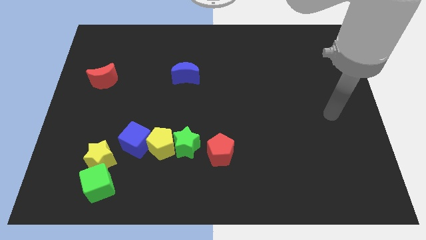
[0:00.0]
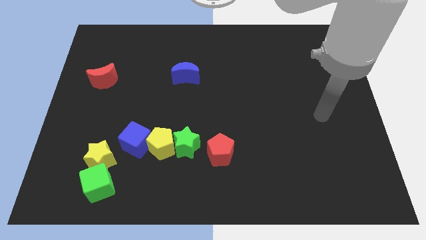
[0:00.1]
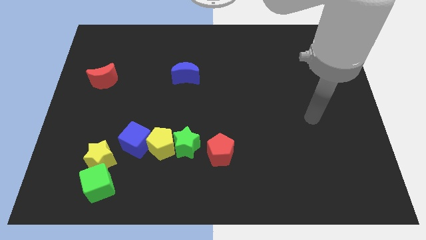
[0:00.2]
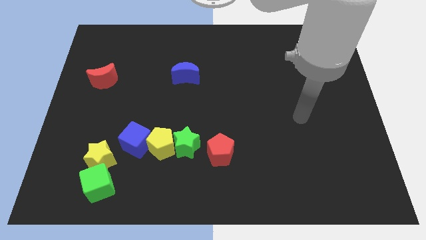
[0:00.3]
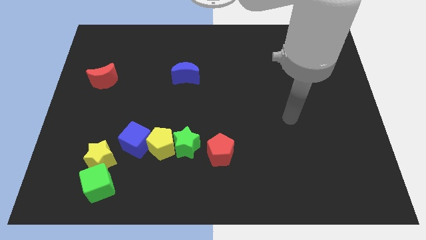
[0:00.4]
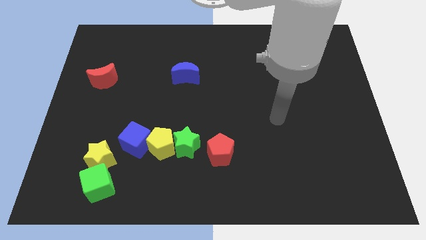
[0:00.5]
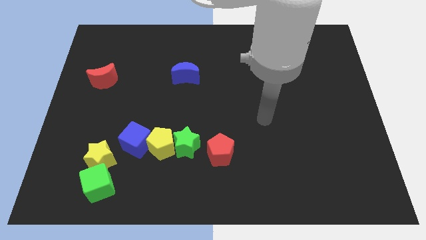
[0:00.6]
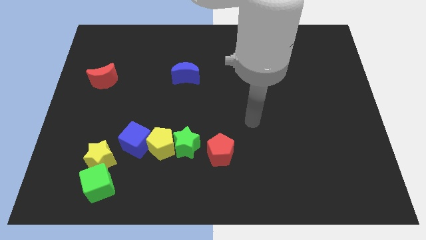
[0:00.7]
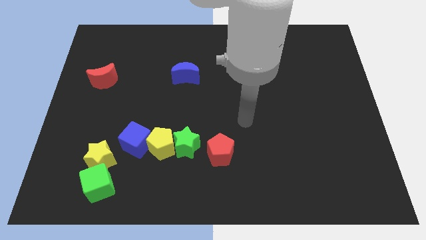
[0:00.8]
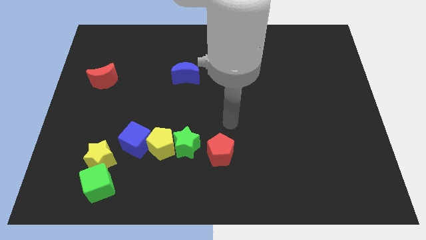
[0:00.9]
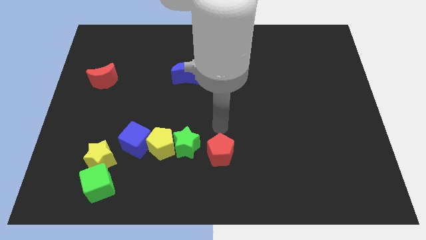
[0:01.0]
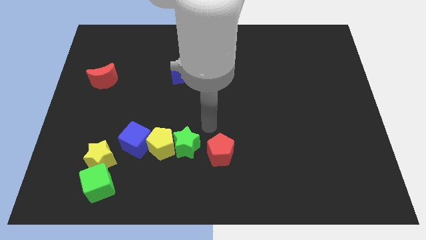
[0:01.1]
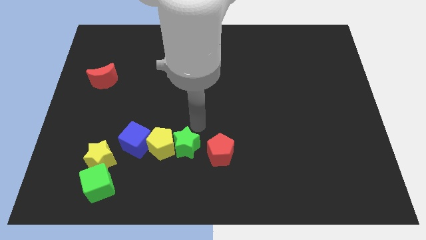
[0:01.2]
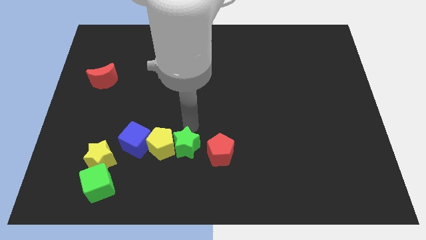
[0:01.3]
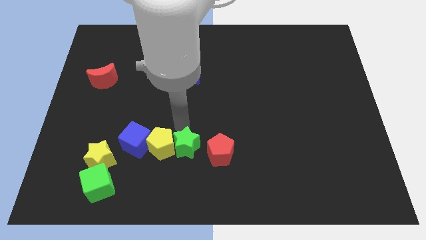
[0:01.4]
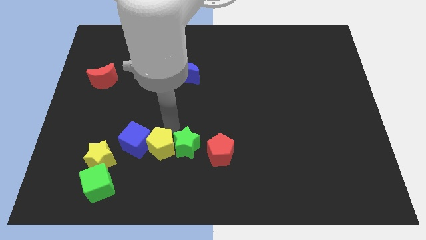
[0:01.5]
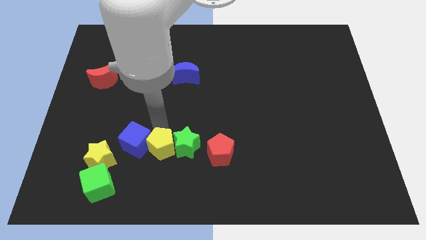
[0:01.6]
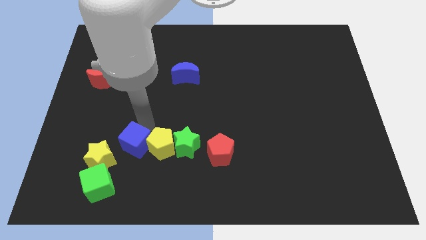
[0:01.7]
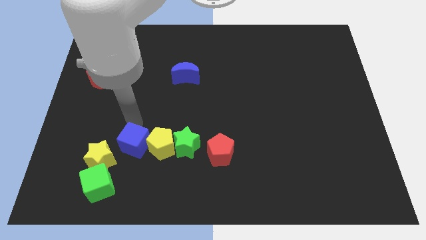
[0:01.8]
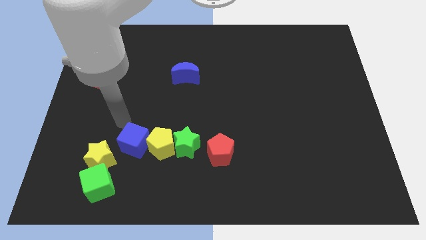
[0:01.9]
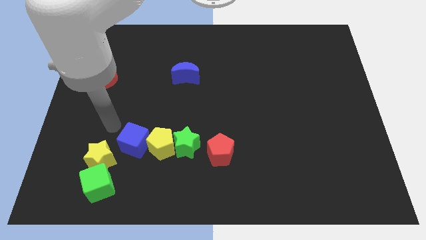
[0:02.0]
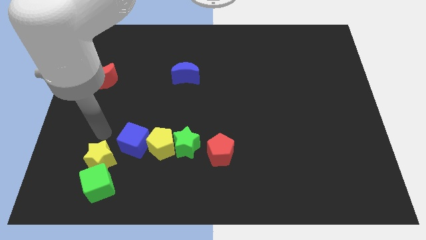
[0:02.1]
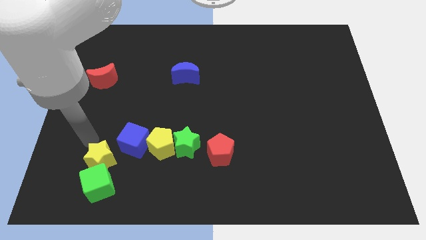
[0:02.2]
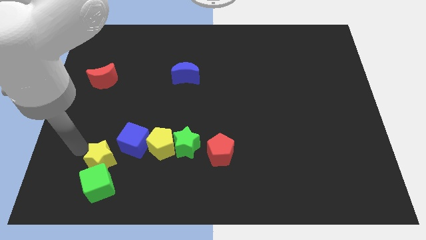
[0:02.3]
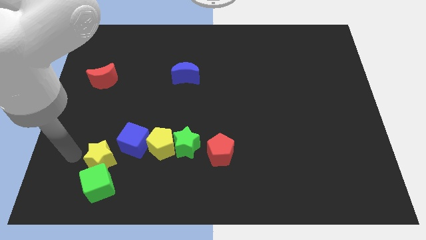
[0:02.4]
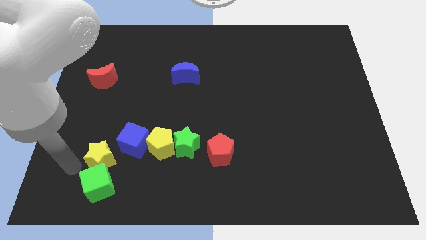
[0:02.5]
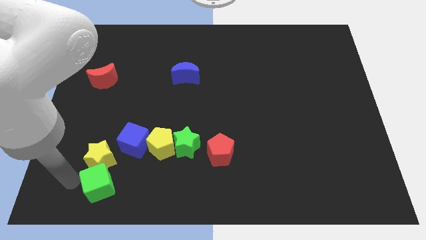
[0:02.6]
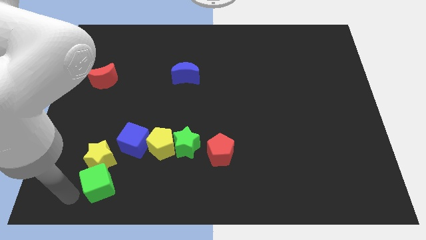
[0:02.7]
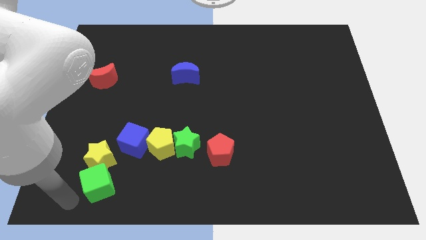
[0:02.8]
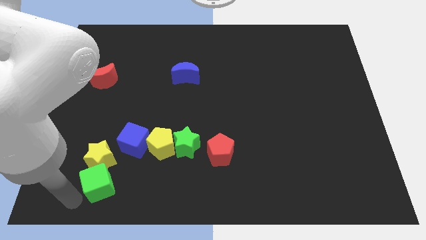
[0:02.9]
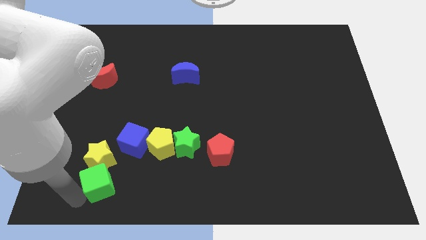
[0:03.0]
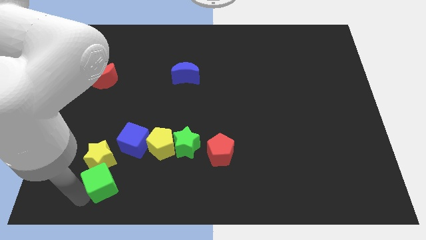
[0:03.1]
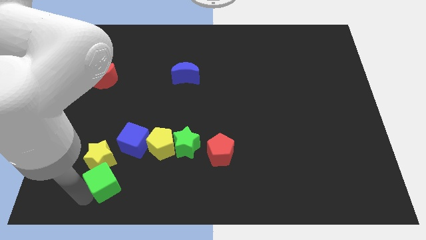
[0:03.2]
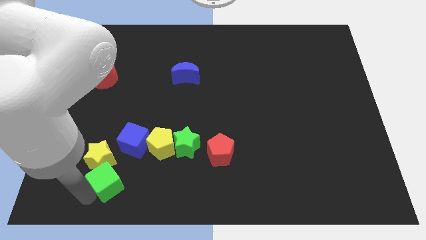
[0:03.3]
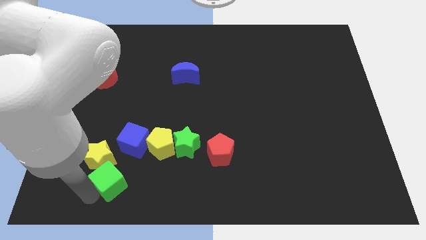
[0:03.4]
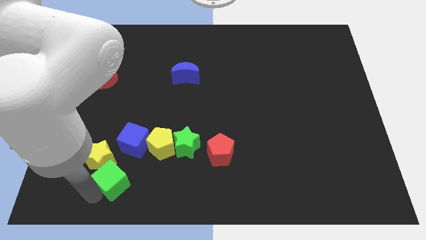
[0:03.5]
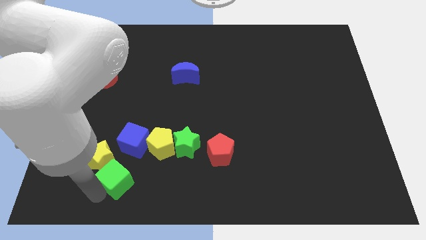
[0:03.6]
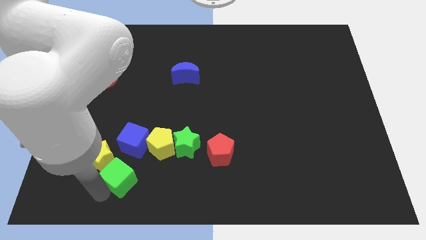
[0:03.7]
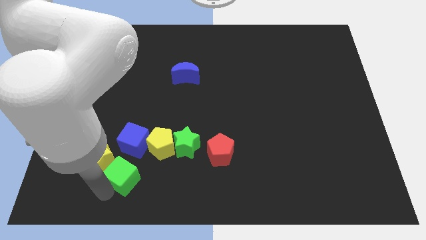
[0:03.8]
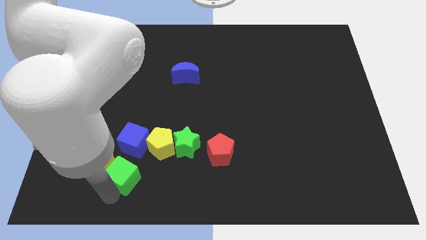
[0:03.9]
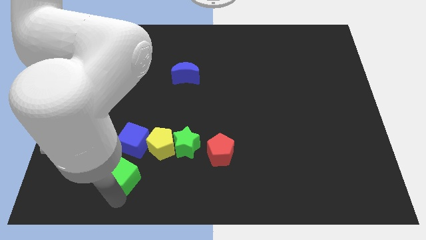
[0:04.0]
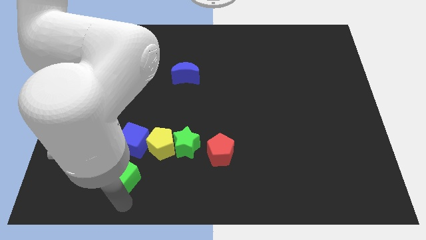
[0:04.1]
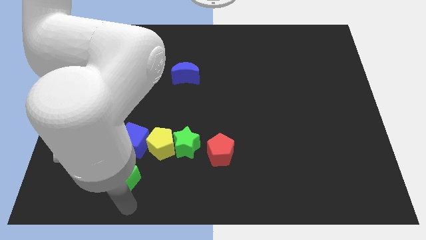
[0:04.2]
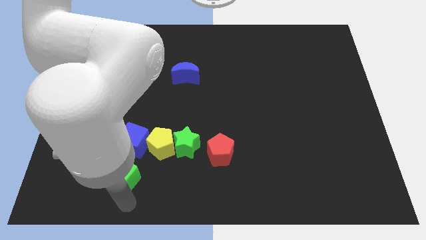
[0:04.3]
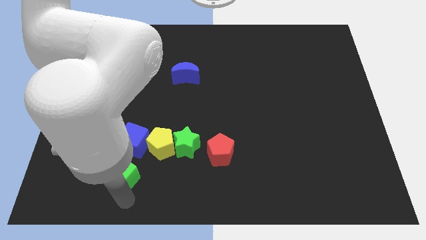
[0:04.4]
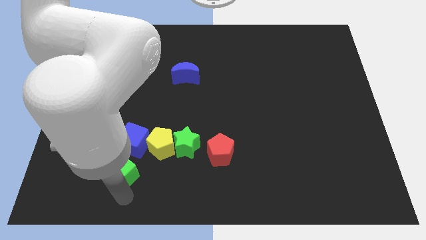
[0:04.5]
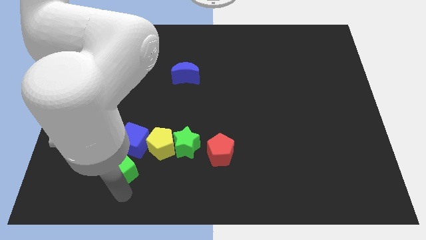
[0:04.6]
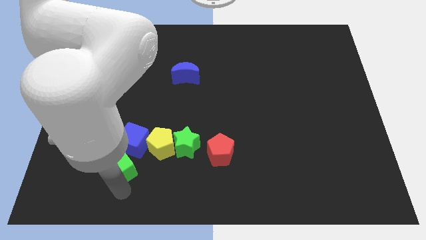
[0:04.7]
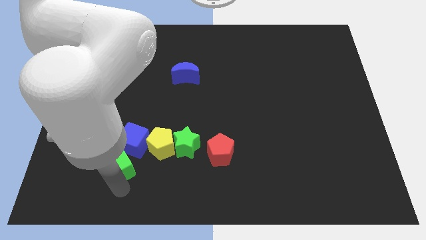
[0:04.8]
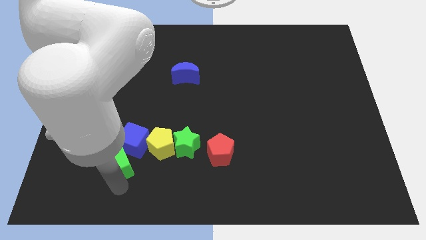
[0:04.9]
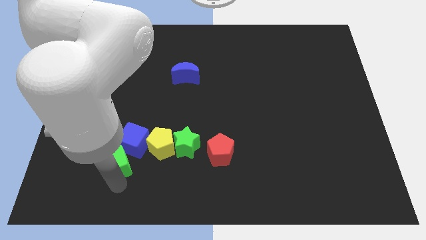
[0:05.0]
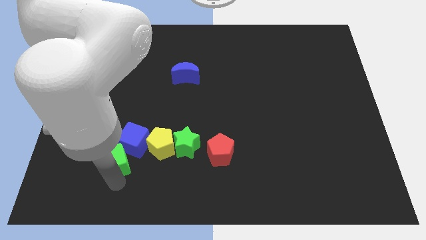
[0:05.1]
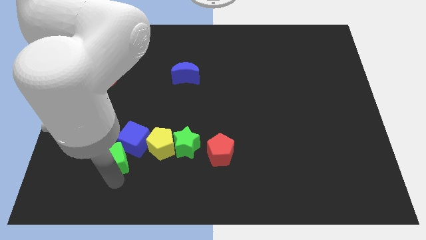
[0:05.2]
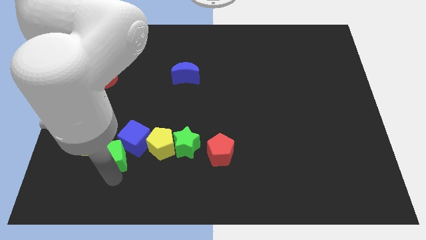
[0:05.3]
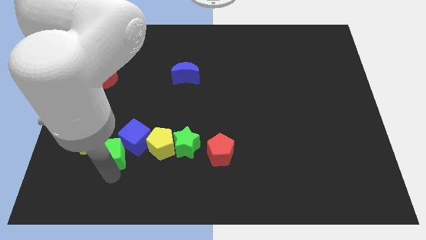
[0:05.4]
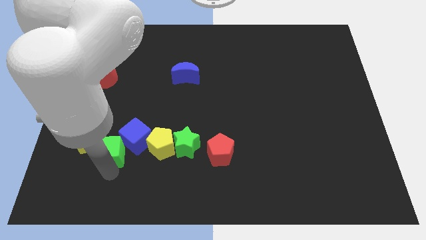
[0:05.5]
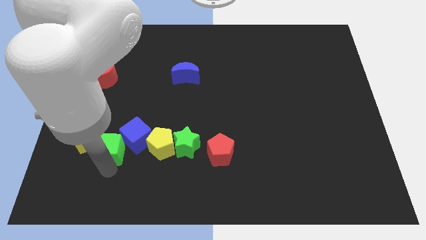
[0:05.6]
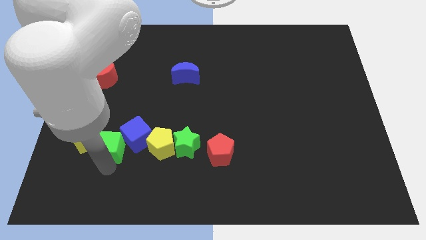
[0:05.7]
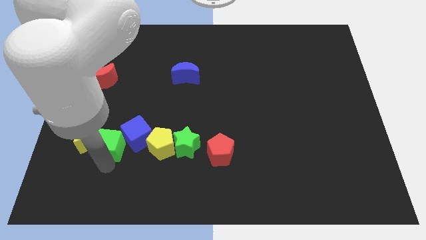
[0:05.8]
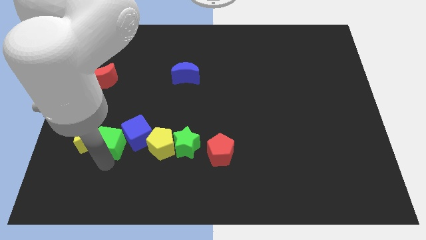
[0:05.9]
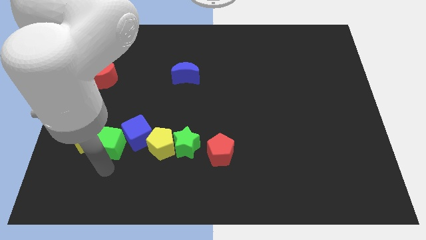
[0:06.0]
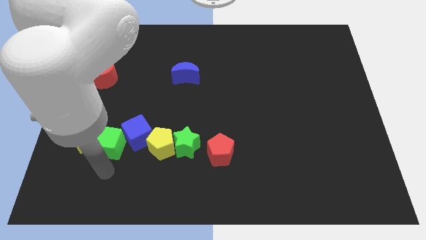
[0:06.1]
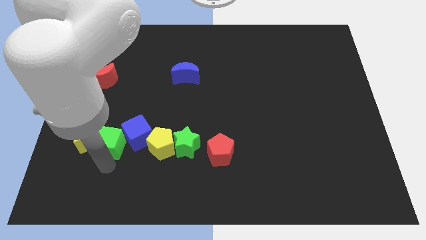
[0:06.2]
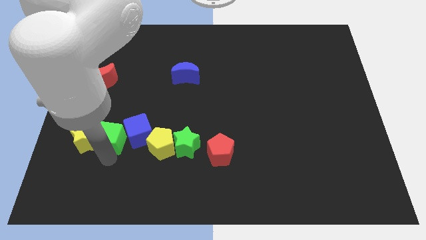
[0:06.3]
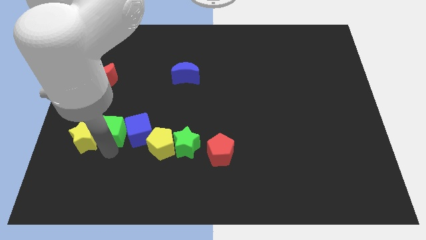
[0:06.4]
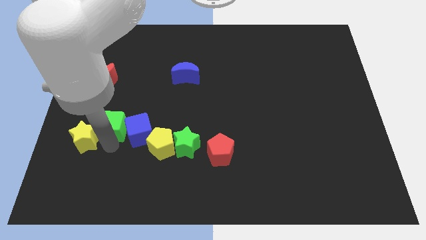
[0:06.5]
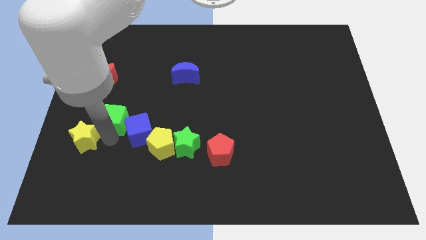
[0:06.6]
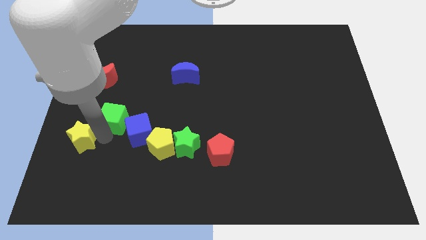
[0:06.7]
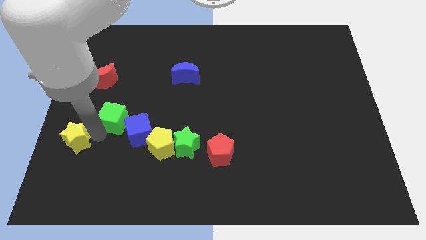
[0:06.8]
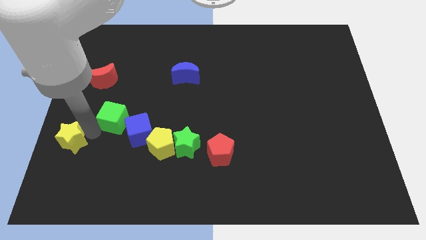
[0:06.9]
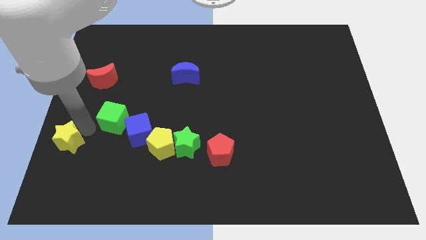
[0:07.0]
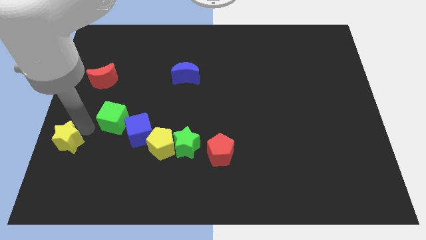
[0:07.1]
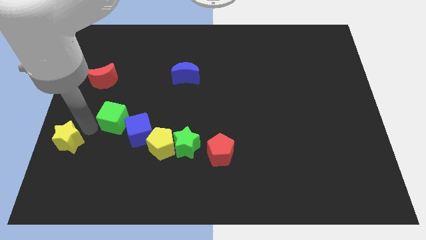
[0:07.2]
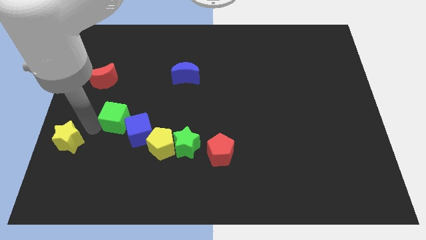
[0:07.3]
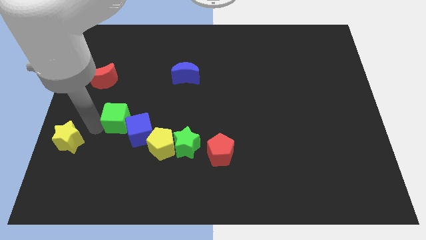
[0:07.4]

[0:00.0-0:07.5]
push the green cube somewhat upwards and then to the right

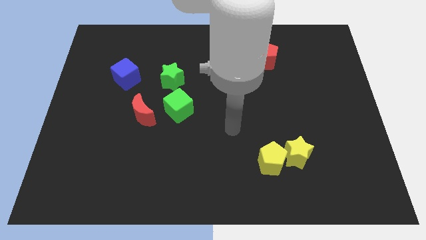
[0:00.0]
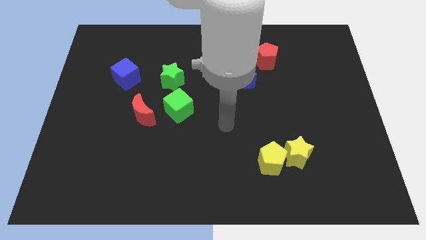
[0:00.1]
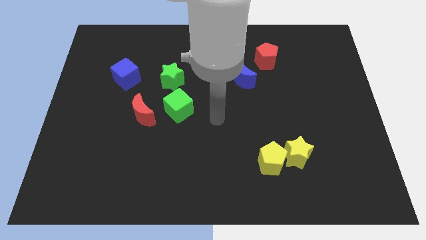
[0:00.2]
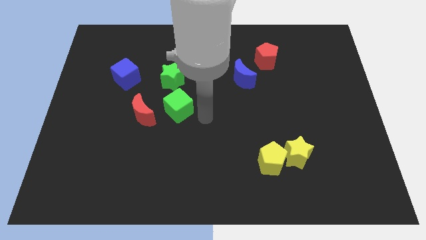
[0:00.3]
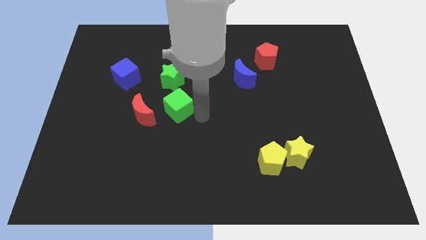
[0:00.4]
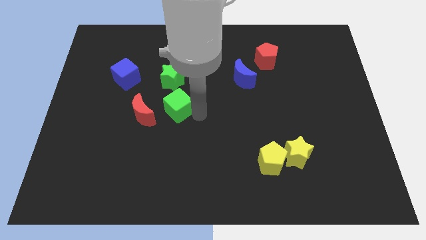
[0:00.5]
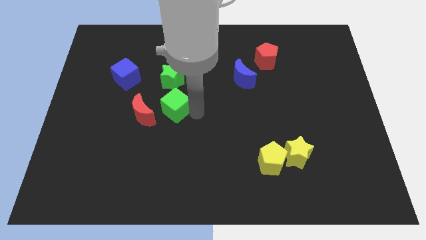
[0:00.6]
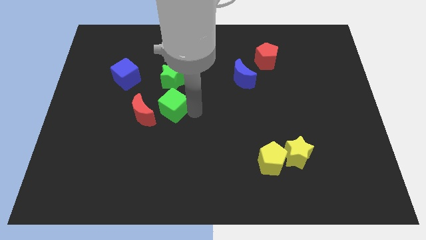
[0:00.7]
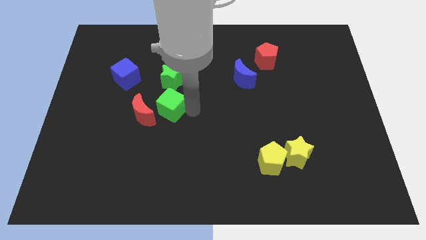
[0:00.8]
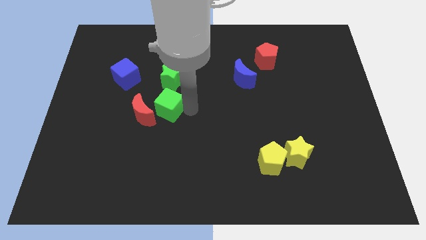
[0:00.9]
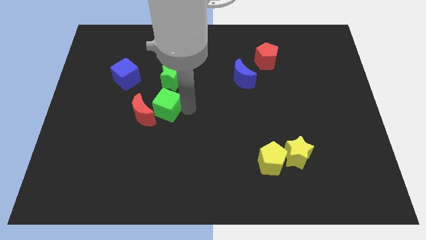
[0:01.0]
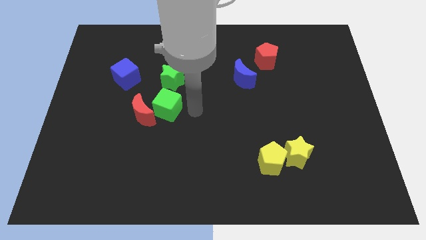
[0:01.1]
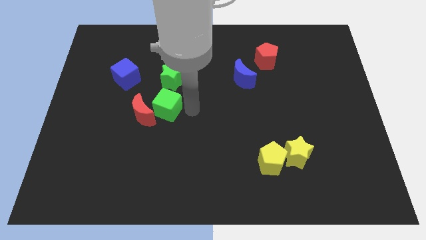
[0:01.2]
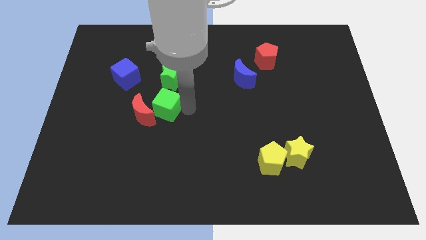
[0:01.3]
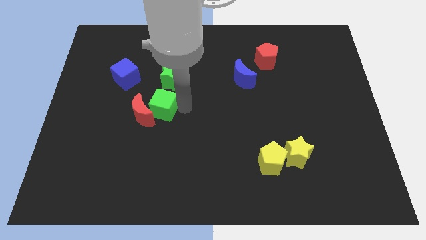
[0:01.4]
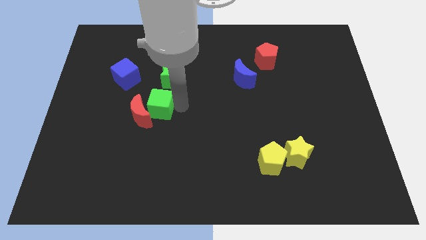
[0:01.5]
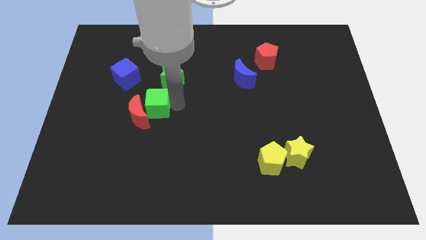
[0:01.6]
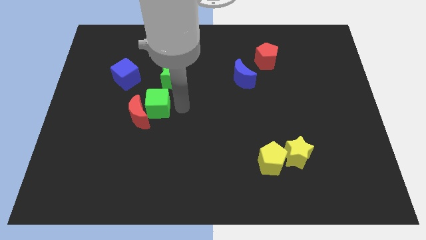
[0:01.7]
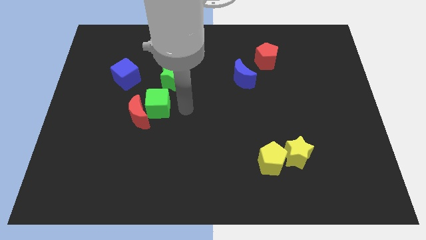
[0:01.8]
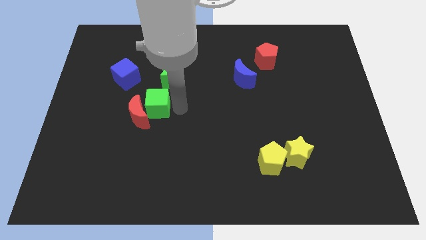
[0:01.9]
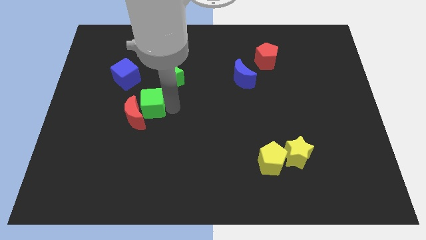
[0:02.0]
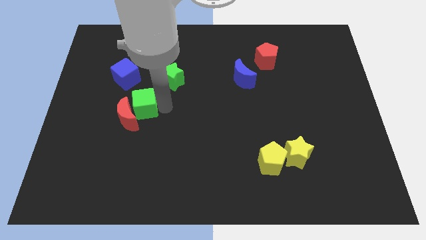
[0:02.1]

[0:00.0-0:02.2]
slide the green cube left somewhat
